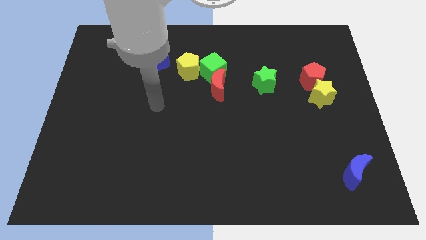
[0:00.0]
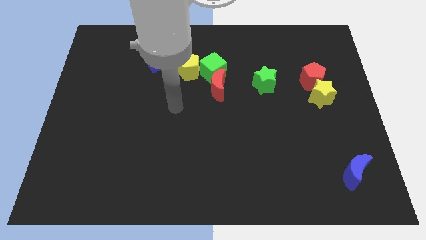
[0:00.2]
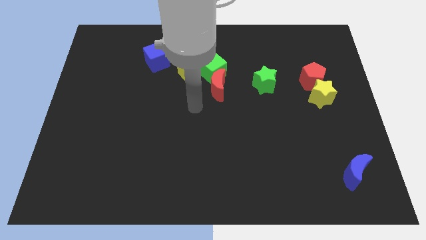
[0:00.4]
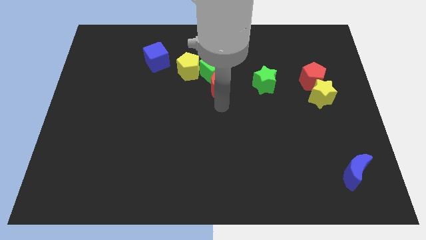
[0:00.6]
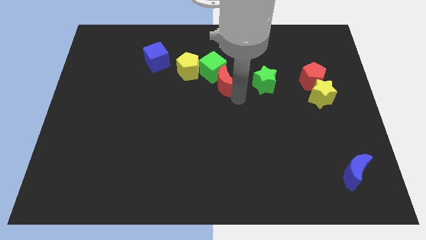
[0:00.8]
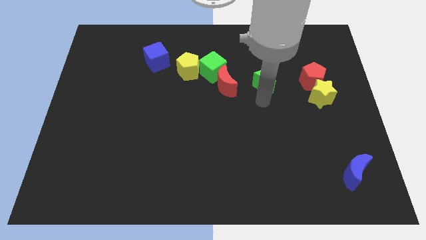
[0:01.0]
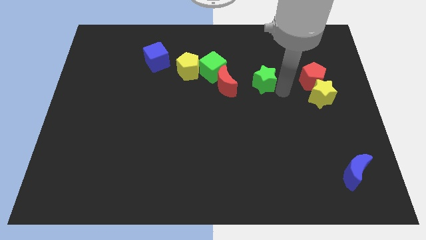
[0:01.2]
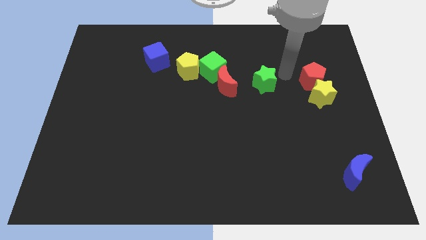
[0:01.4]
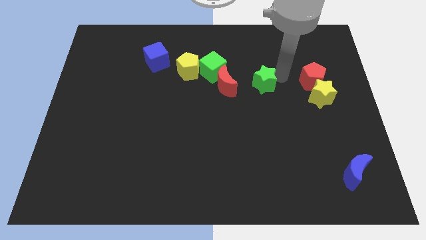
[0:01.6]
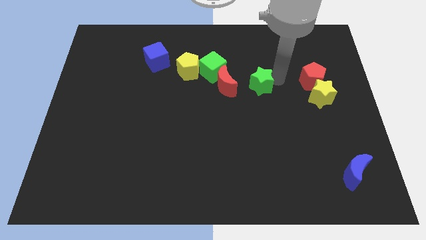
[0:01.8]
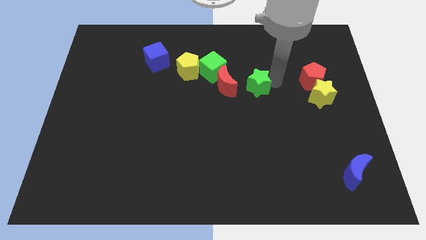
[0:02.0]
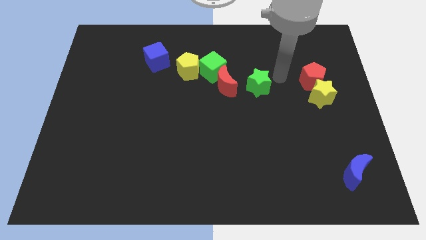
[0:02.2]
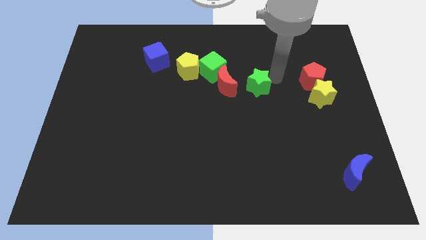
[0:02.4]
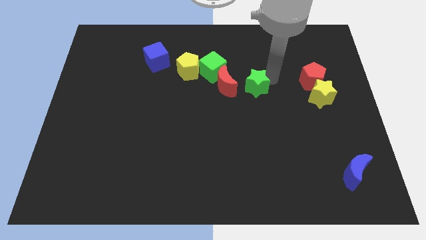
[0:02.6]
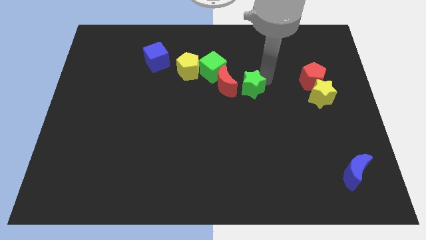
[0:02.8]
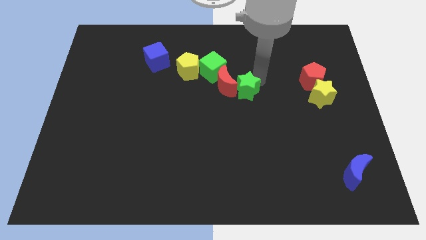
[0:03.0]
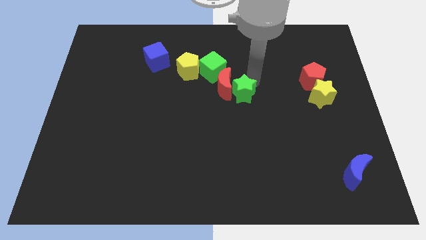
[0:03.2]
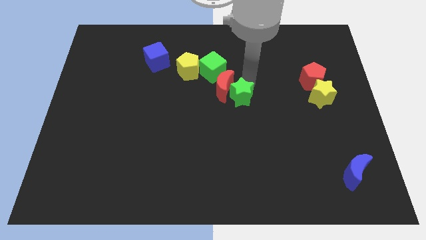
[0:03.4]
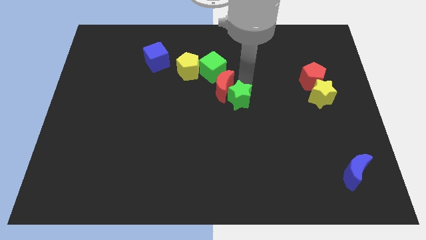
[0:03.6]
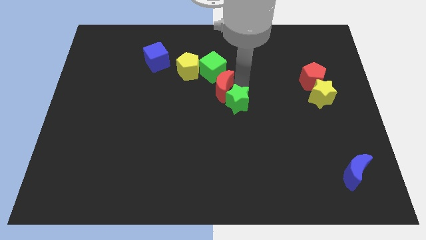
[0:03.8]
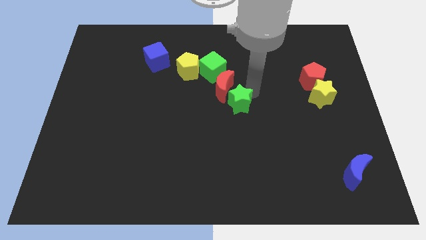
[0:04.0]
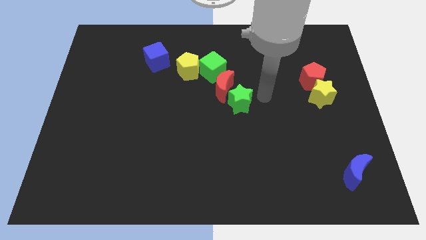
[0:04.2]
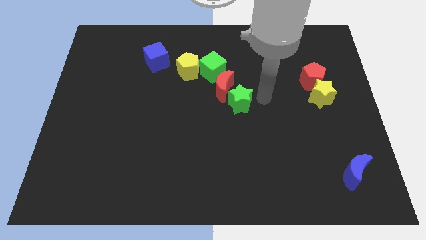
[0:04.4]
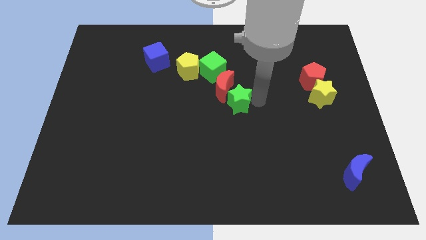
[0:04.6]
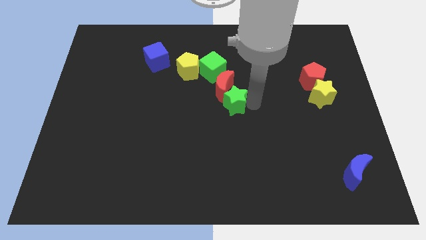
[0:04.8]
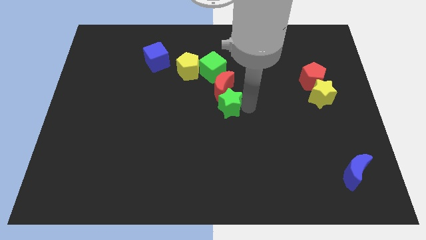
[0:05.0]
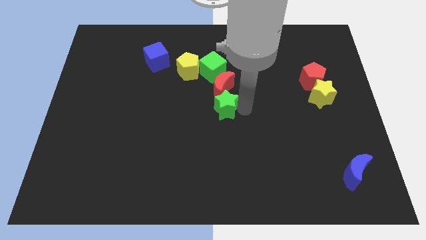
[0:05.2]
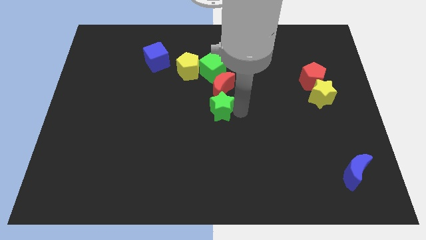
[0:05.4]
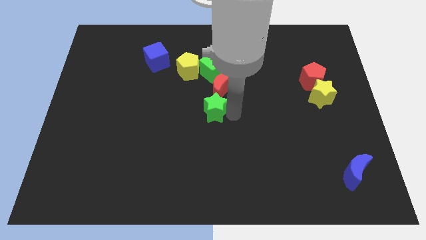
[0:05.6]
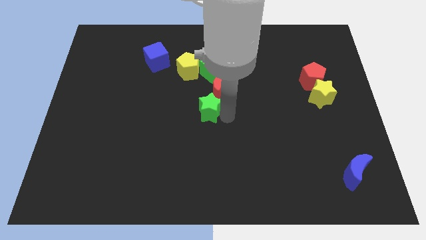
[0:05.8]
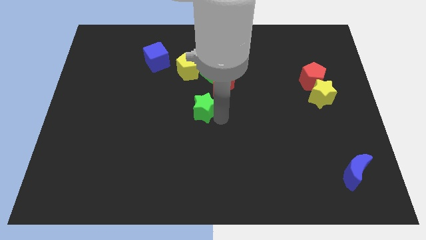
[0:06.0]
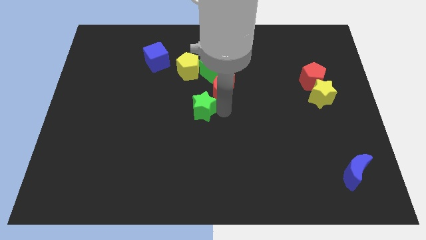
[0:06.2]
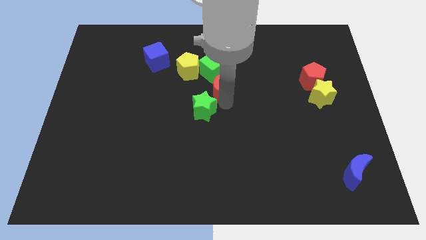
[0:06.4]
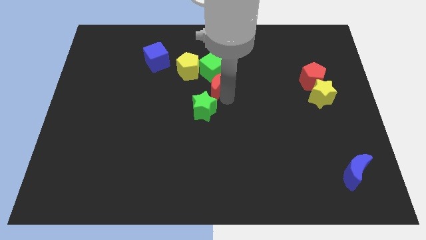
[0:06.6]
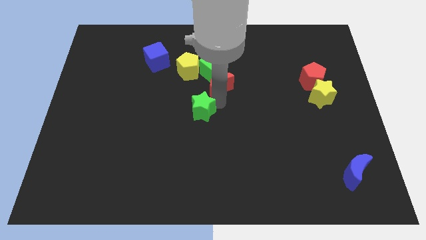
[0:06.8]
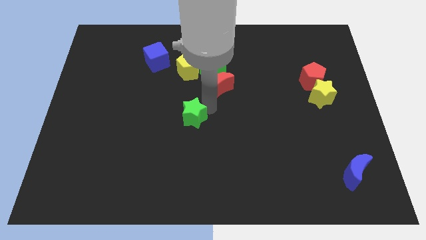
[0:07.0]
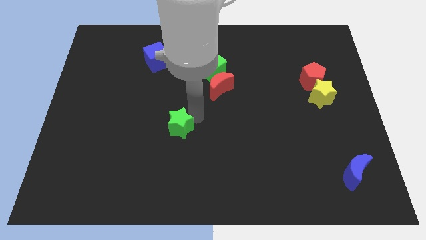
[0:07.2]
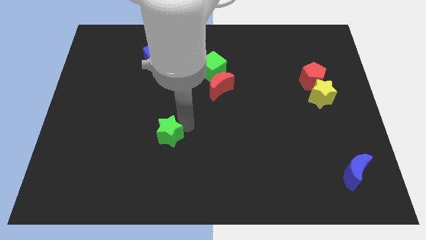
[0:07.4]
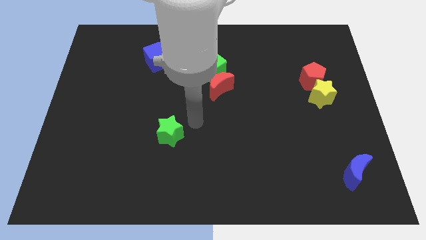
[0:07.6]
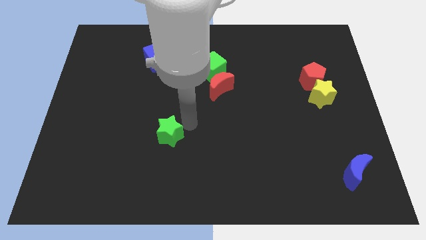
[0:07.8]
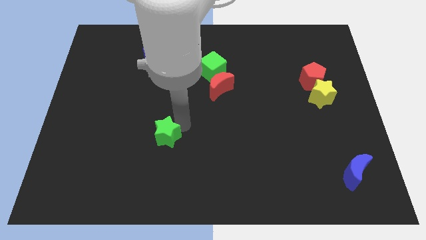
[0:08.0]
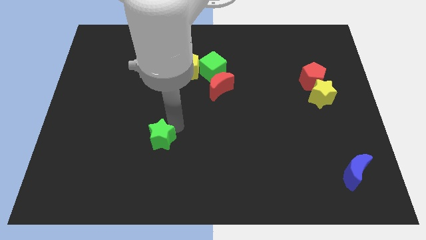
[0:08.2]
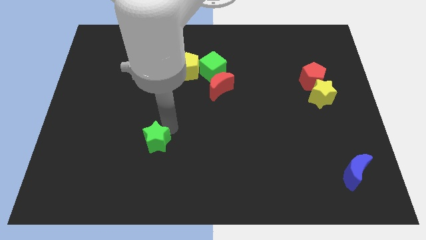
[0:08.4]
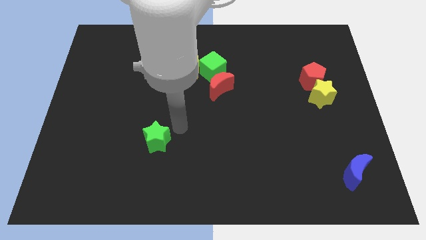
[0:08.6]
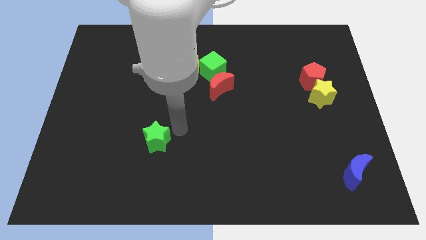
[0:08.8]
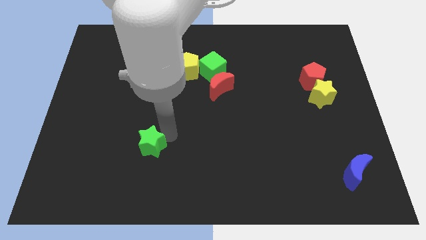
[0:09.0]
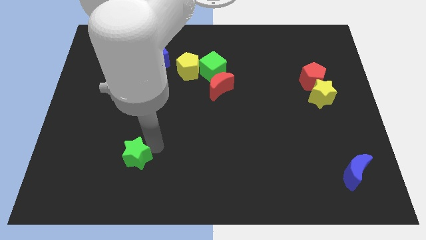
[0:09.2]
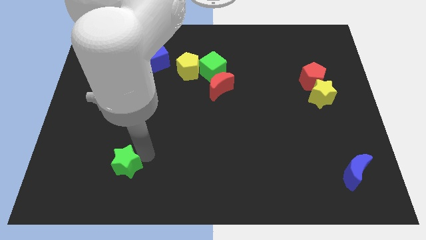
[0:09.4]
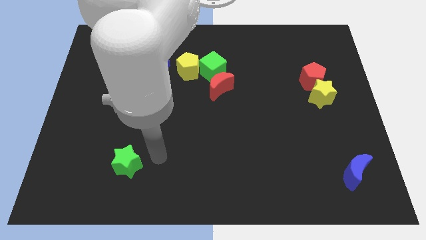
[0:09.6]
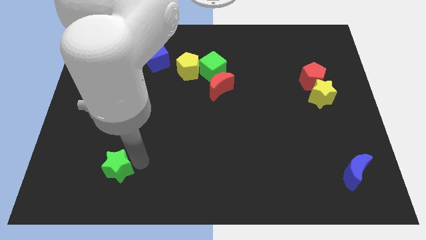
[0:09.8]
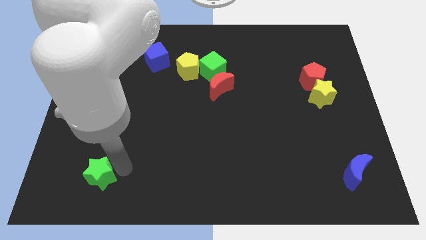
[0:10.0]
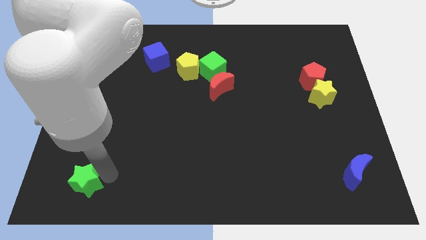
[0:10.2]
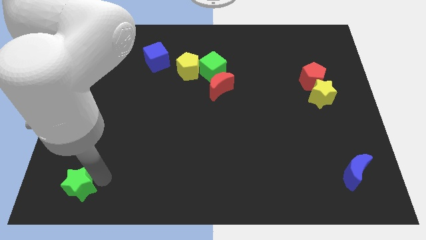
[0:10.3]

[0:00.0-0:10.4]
move the green star to the bottom left corner

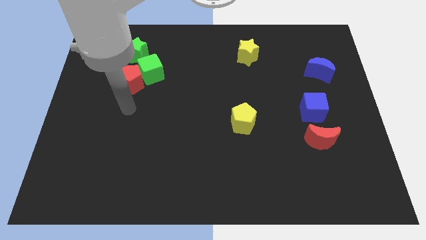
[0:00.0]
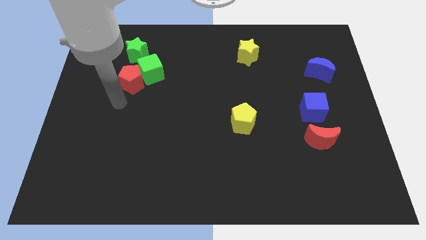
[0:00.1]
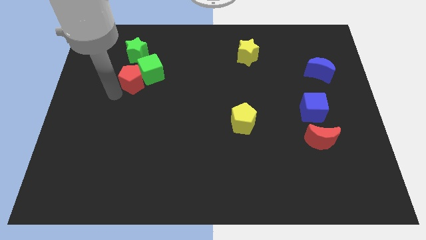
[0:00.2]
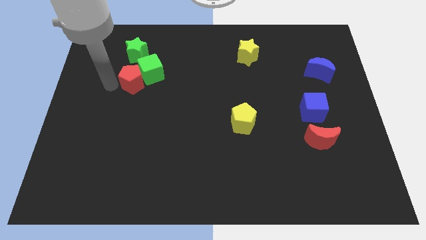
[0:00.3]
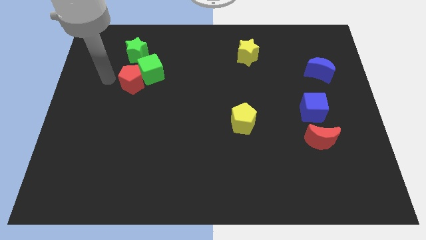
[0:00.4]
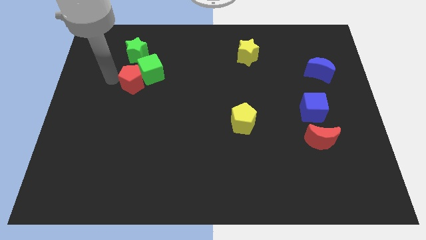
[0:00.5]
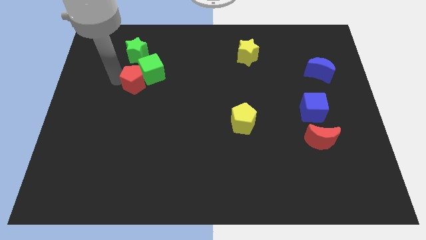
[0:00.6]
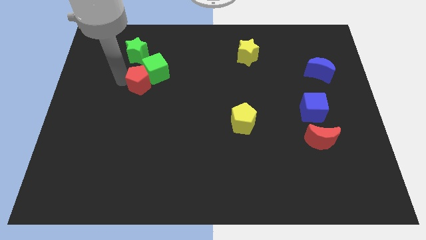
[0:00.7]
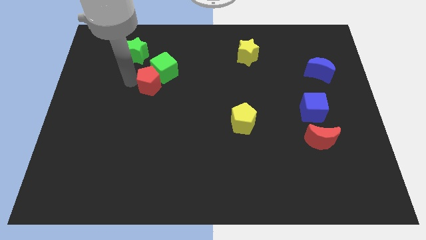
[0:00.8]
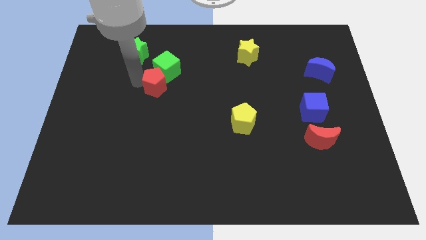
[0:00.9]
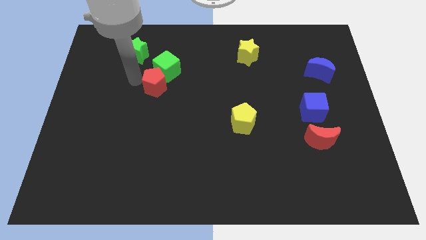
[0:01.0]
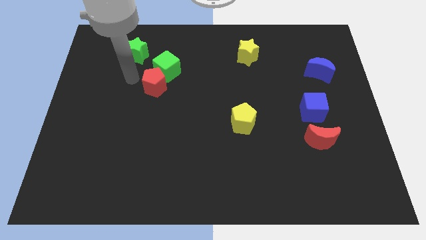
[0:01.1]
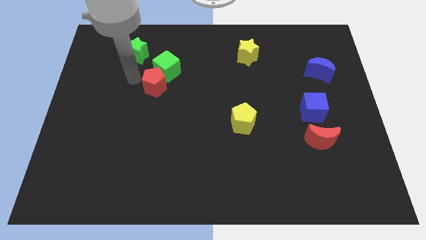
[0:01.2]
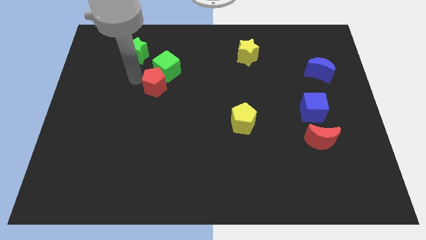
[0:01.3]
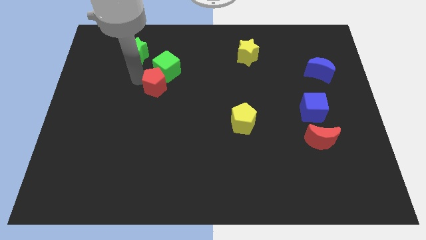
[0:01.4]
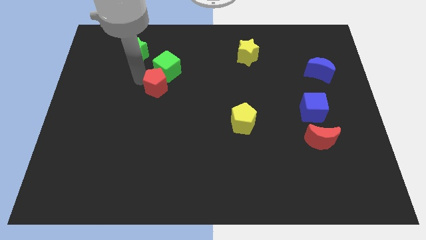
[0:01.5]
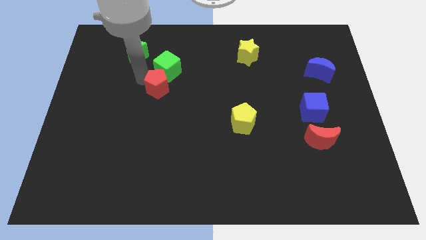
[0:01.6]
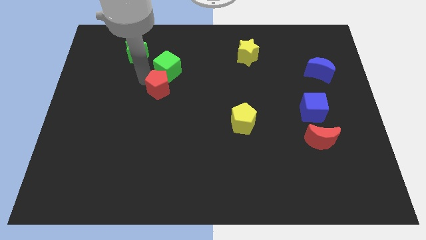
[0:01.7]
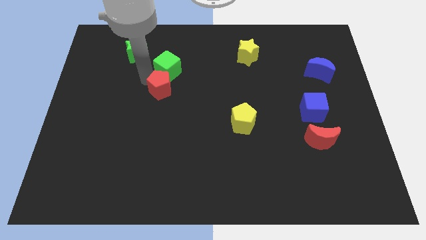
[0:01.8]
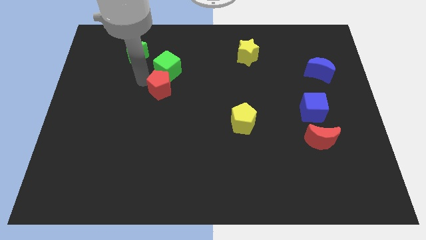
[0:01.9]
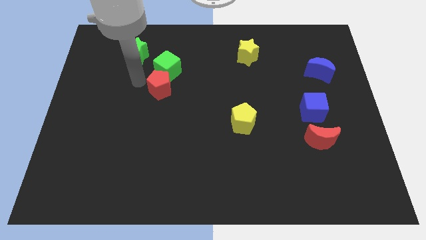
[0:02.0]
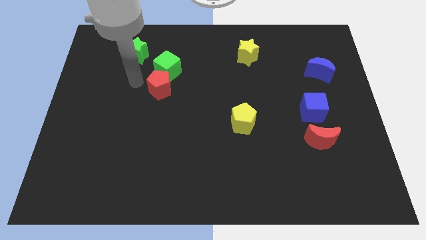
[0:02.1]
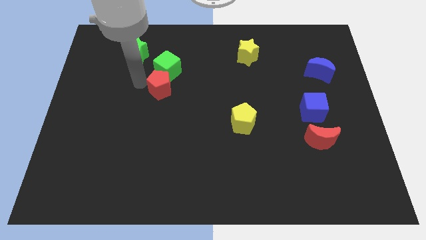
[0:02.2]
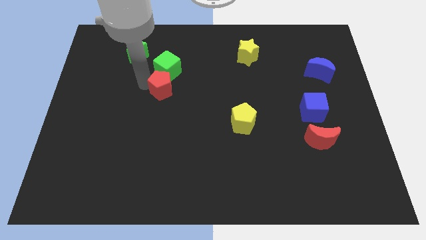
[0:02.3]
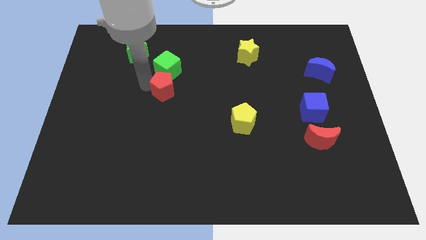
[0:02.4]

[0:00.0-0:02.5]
put the red pentagon to the middle
